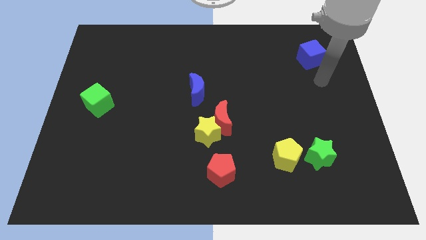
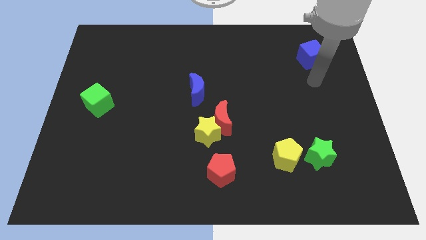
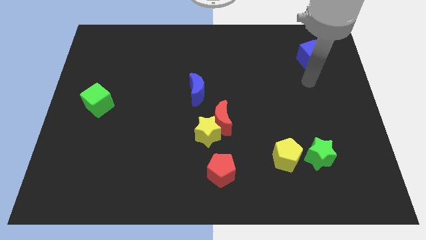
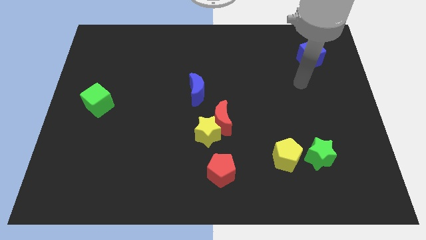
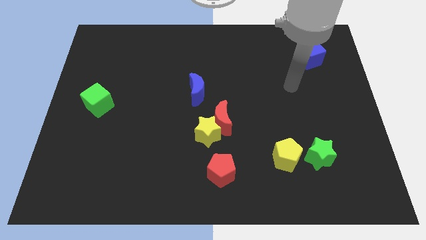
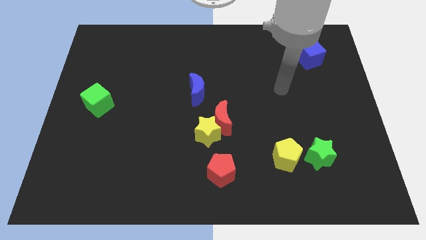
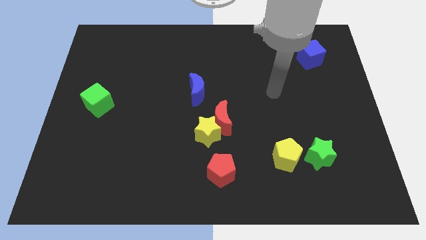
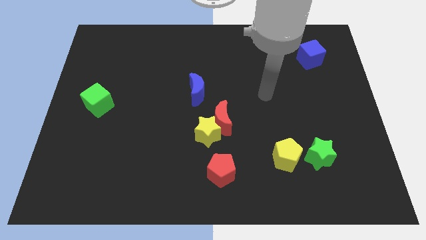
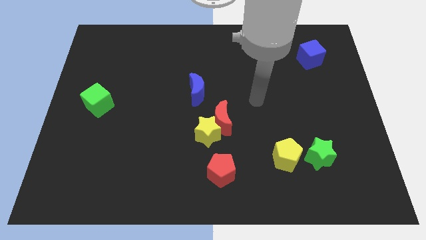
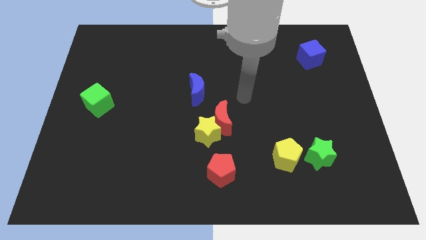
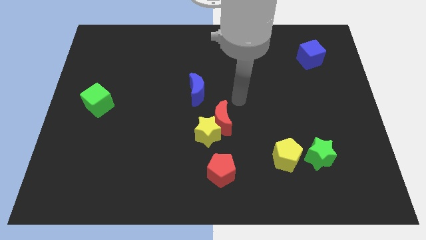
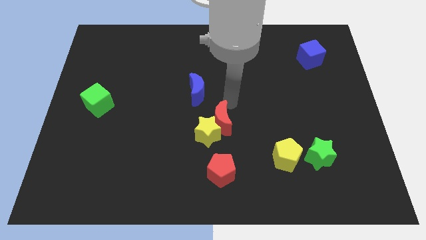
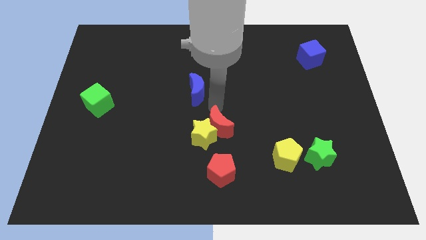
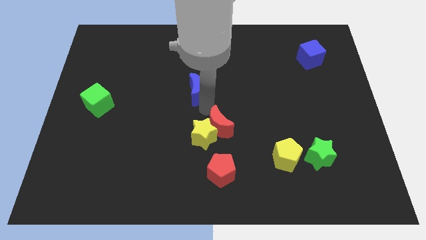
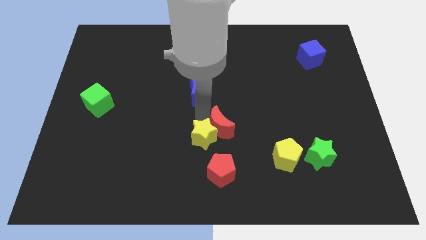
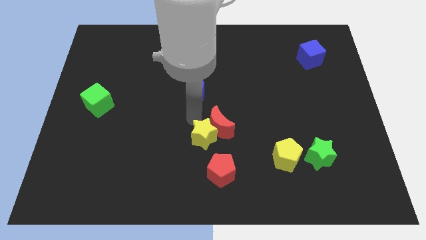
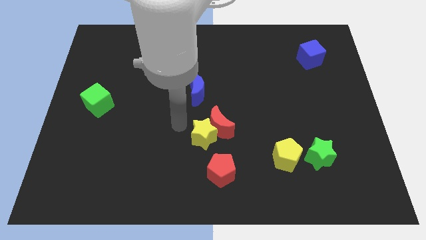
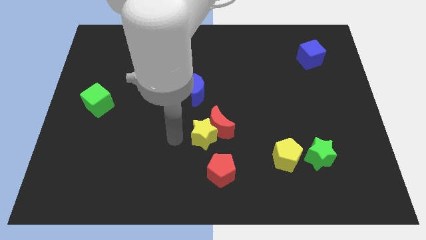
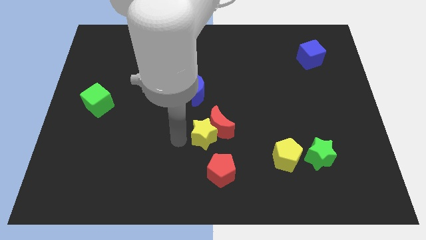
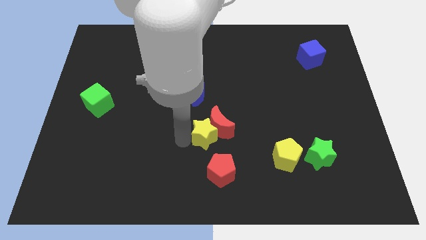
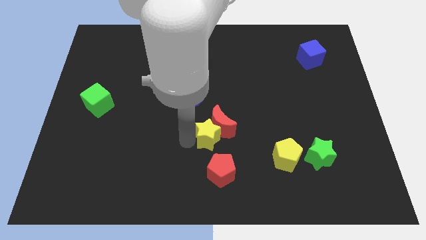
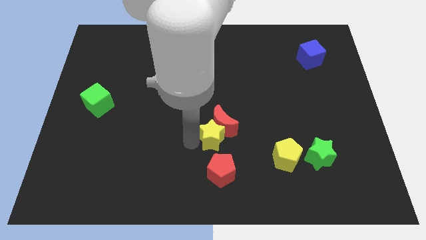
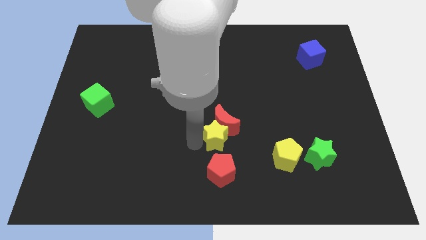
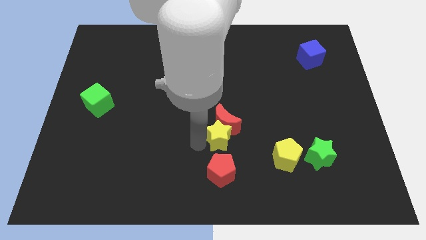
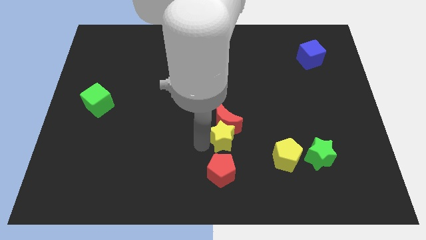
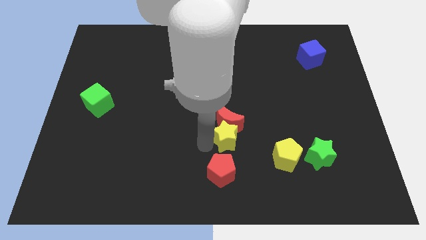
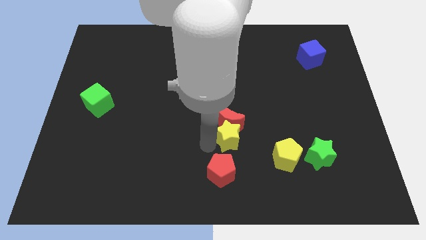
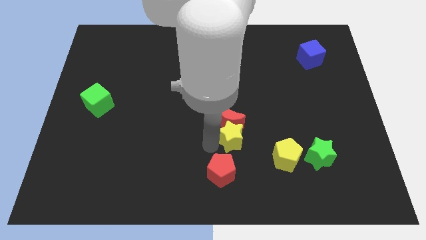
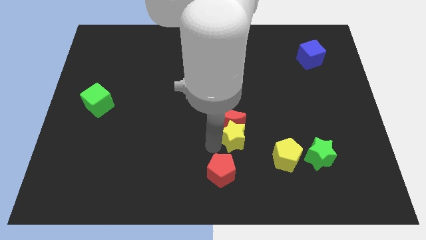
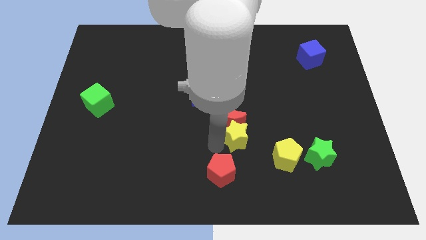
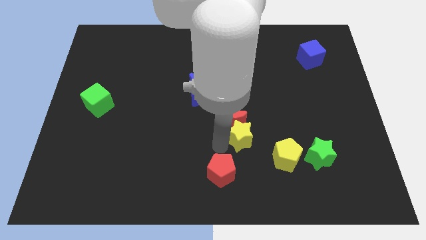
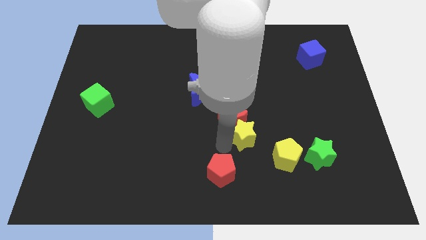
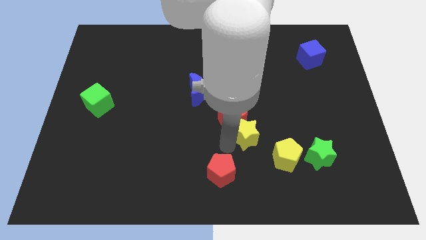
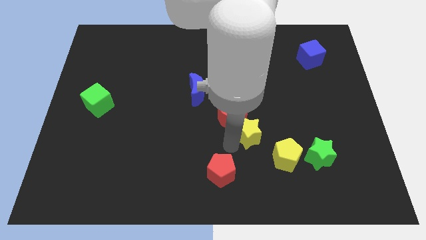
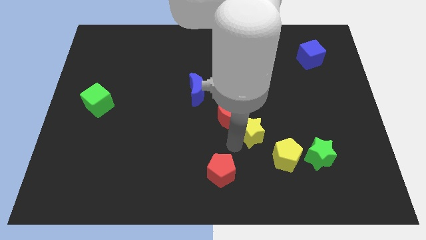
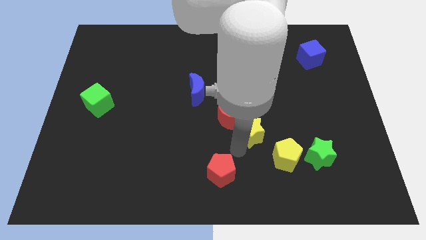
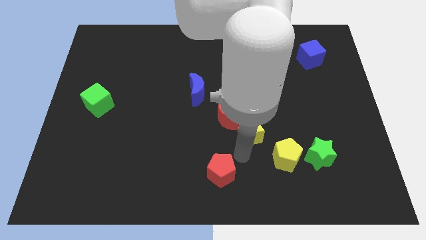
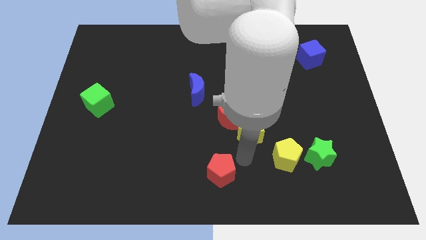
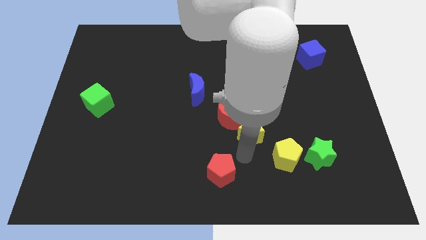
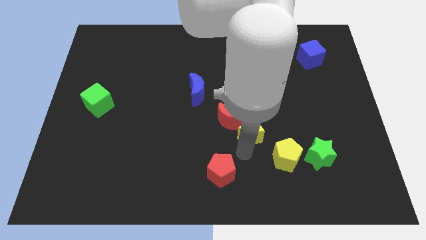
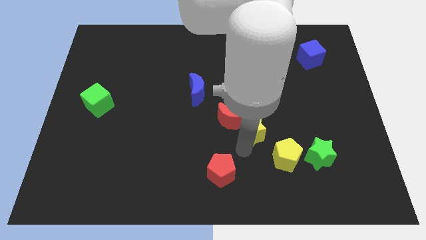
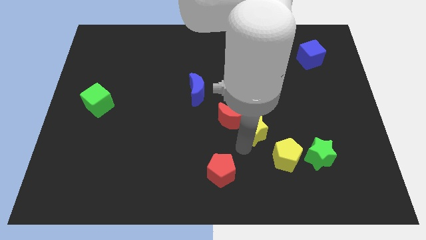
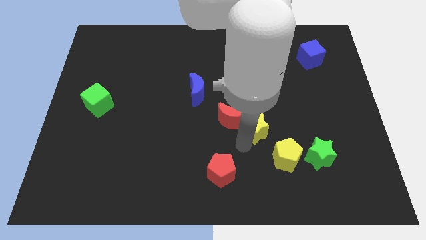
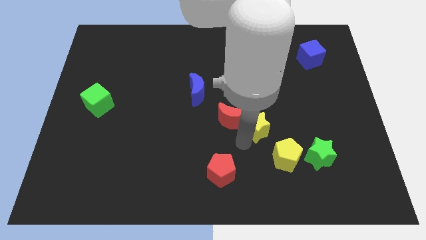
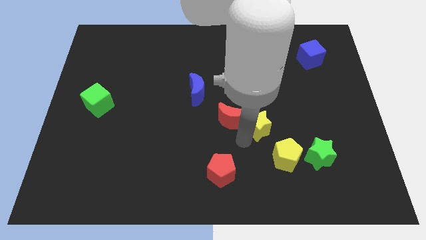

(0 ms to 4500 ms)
move the yellow star upwards and right somewhat

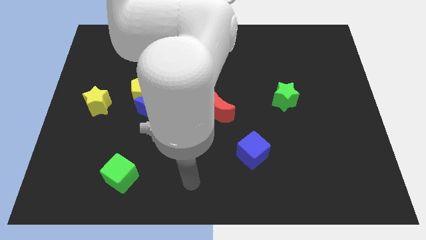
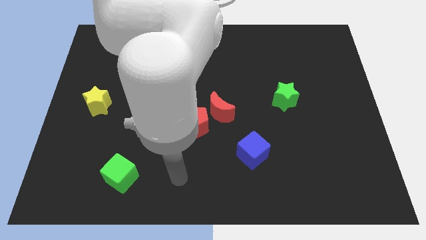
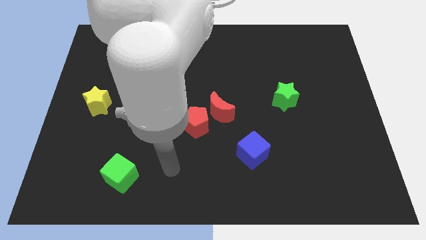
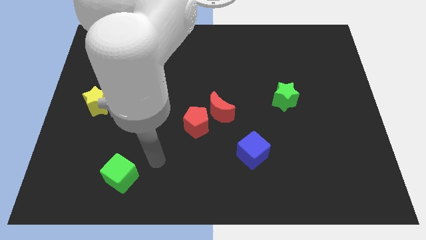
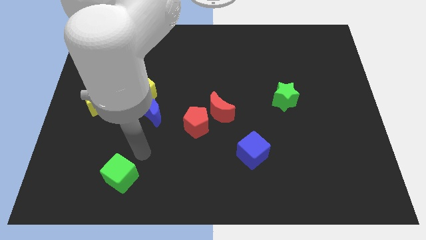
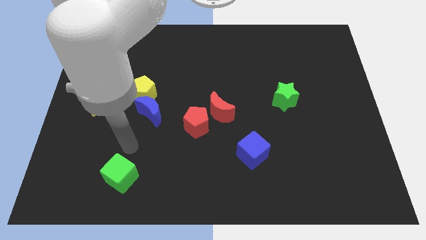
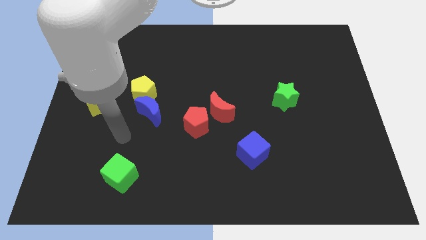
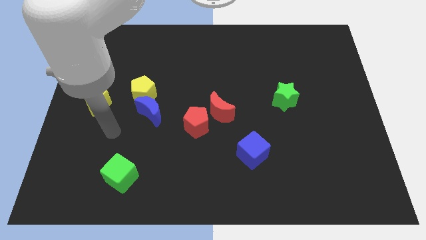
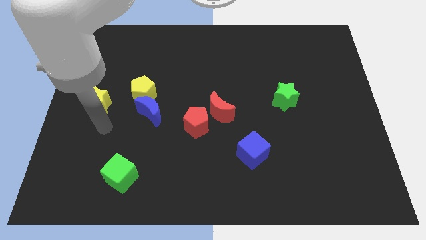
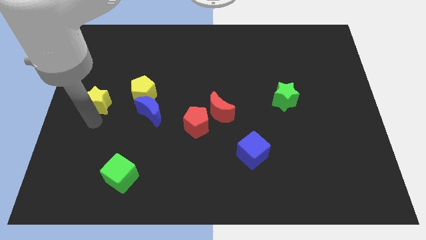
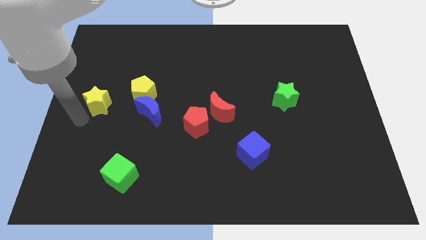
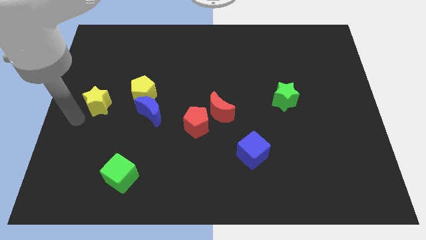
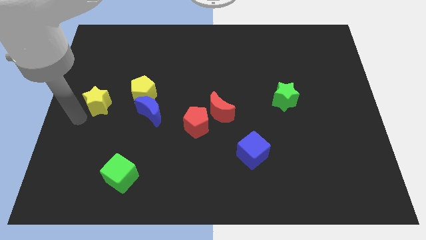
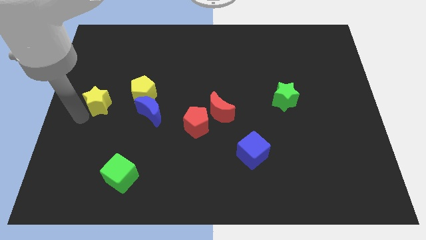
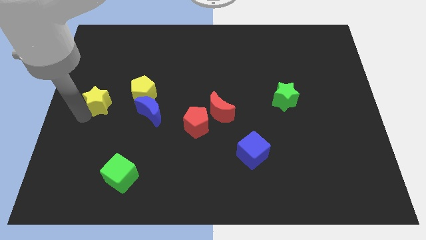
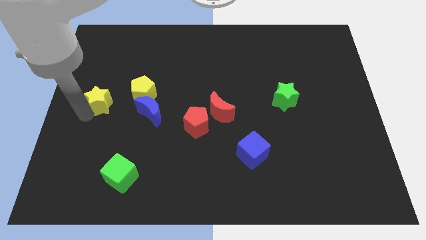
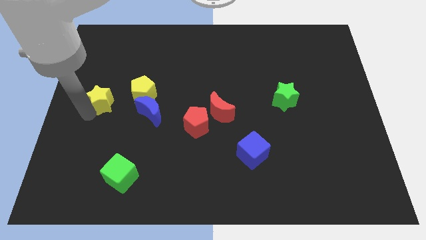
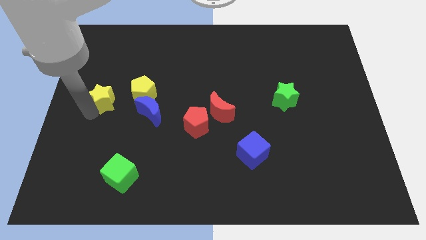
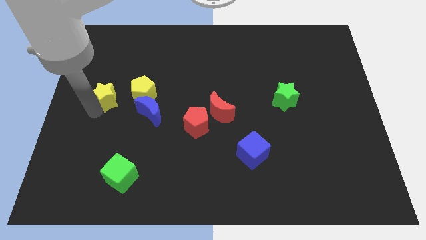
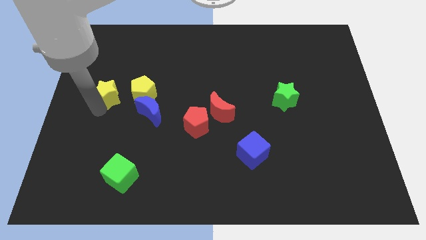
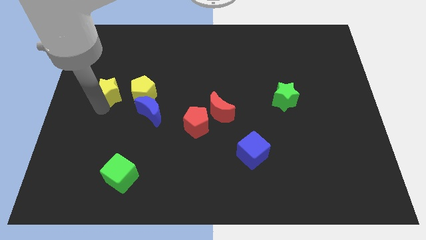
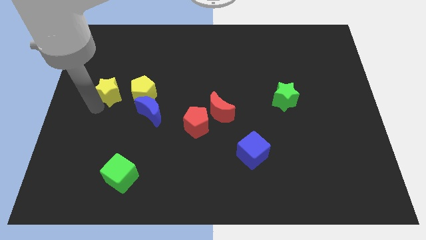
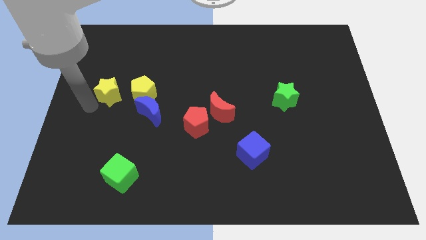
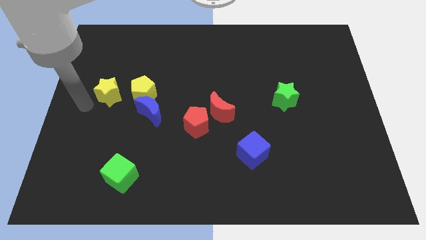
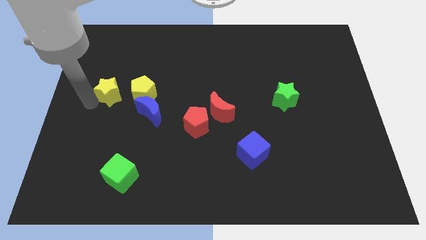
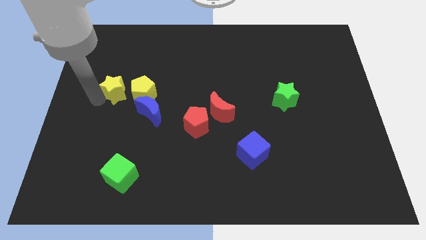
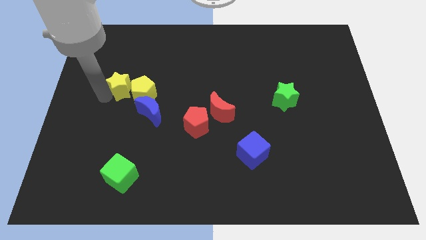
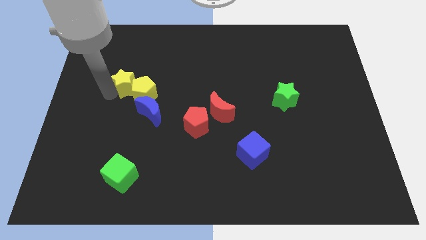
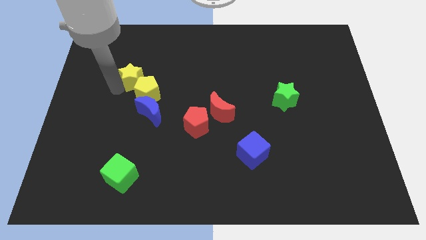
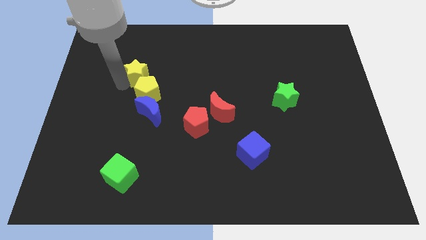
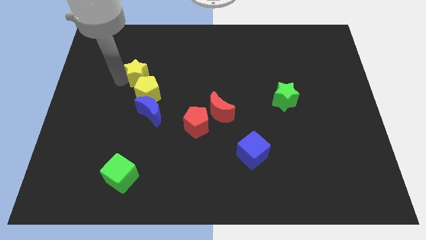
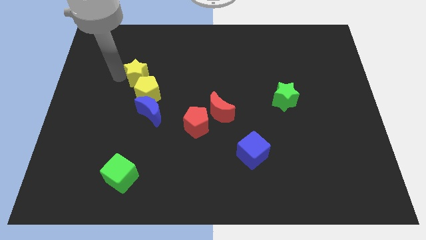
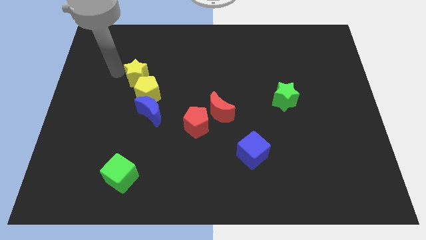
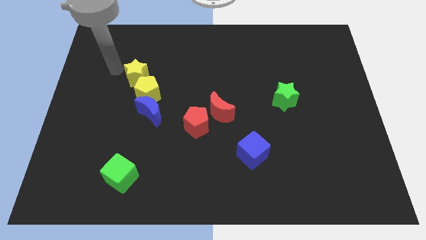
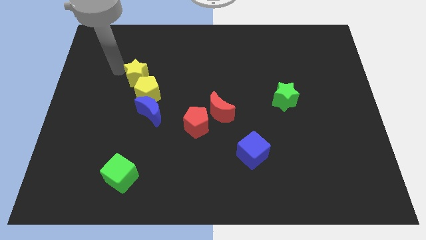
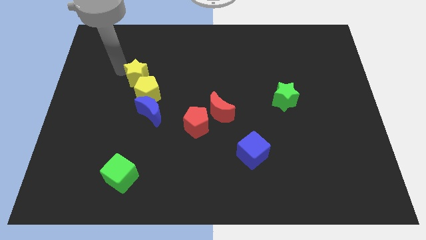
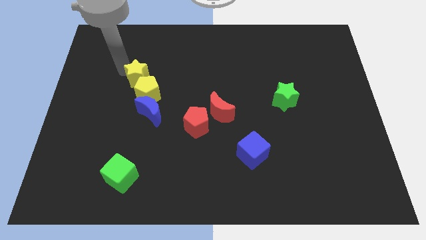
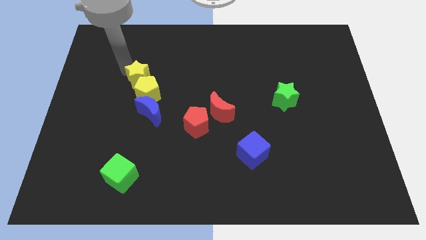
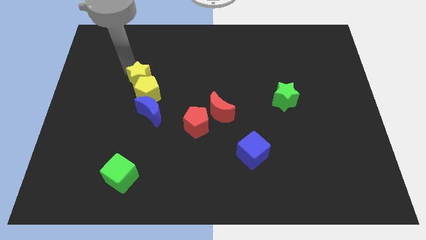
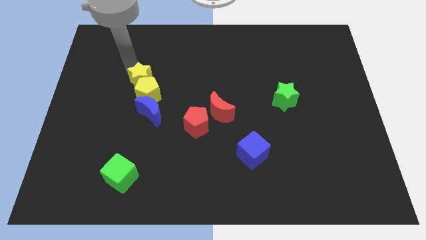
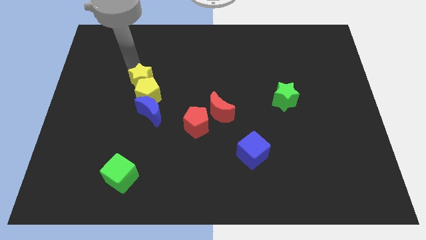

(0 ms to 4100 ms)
slightly push the yellow star right
